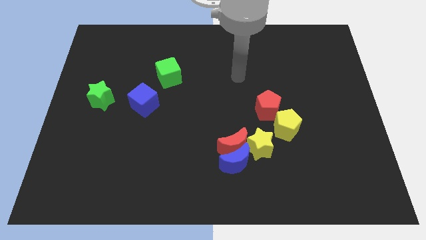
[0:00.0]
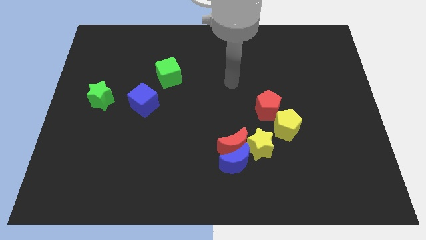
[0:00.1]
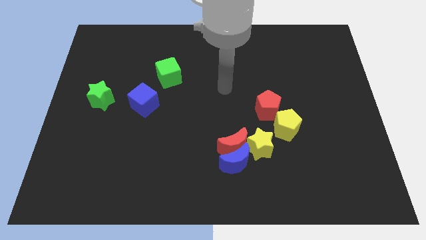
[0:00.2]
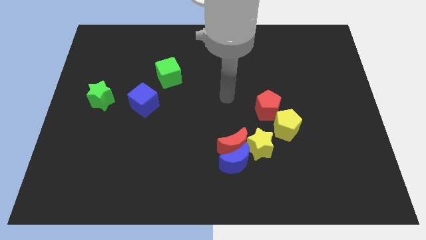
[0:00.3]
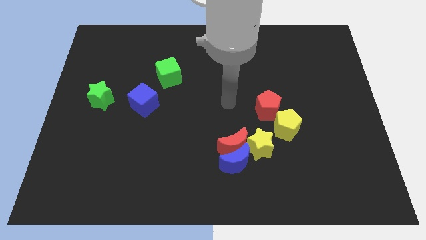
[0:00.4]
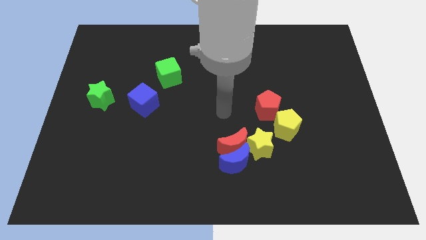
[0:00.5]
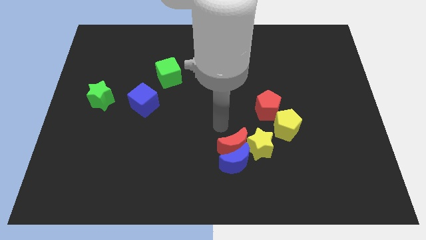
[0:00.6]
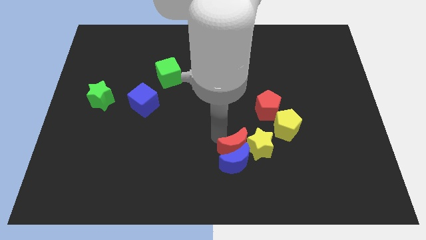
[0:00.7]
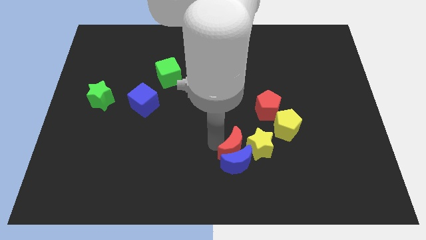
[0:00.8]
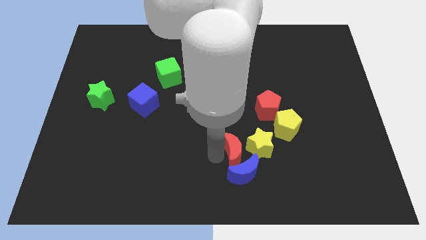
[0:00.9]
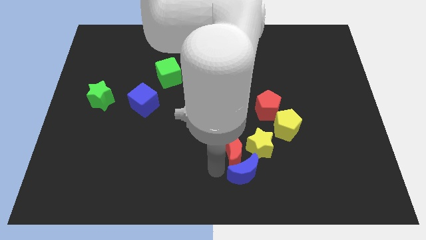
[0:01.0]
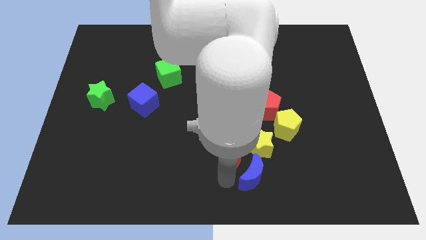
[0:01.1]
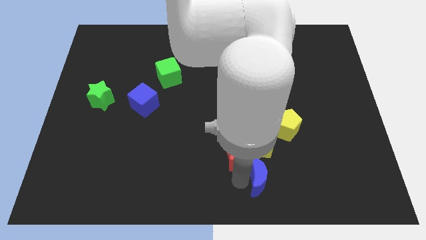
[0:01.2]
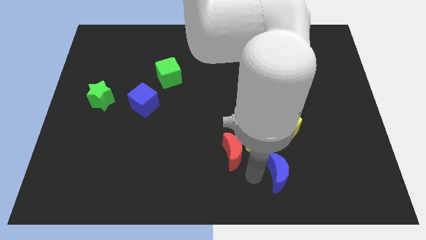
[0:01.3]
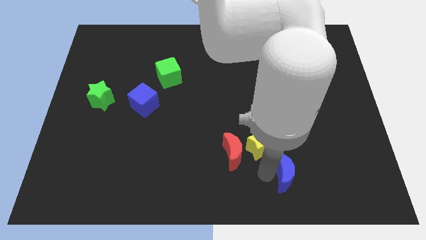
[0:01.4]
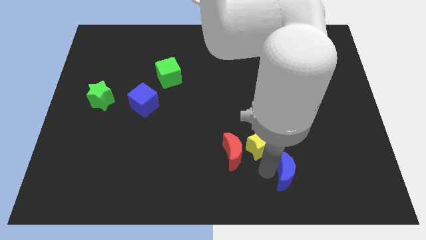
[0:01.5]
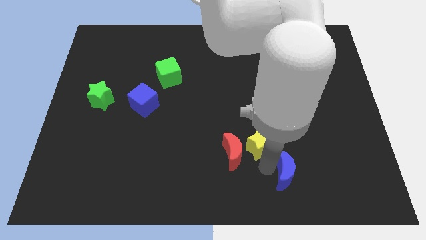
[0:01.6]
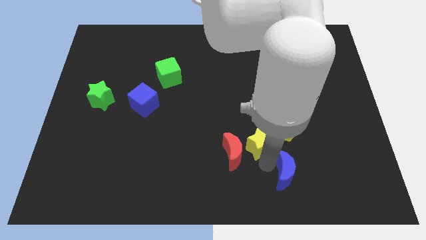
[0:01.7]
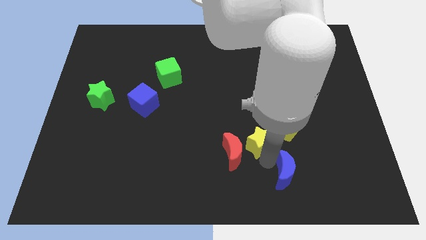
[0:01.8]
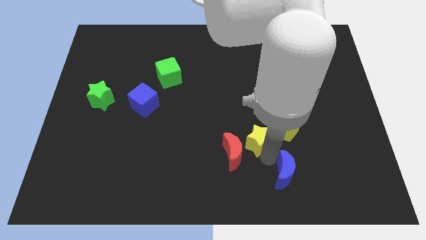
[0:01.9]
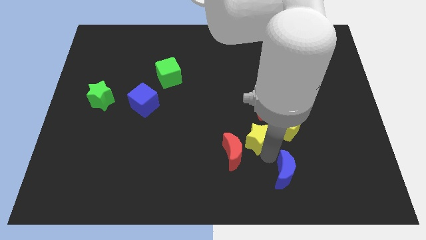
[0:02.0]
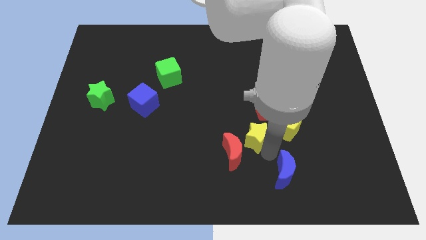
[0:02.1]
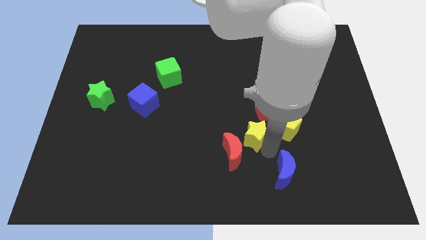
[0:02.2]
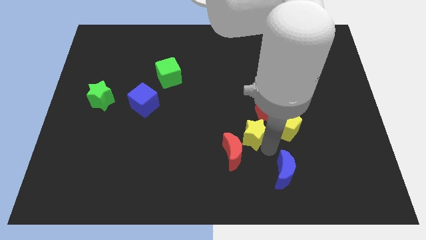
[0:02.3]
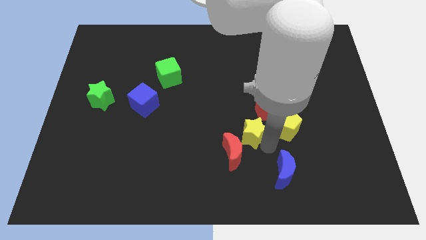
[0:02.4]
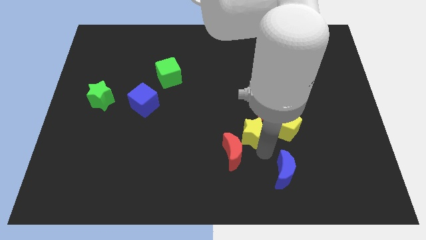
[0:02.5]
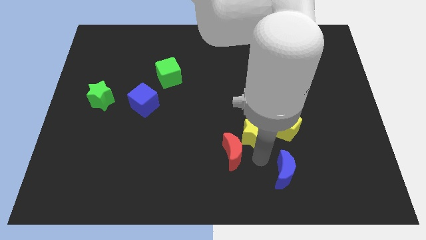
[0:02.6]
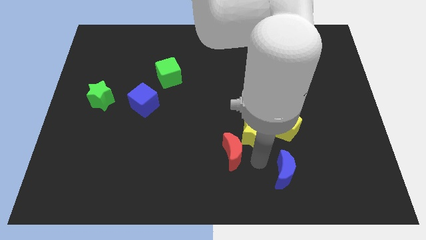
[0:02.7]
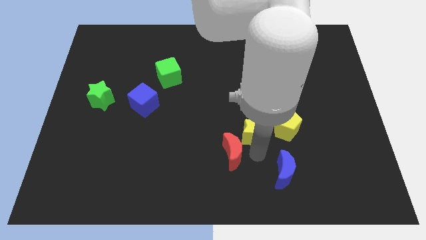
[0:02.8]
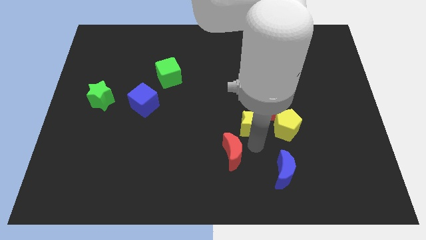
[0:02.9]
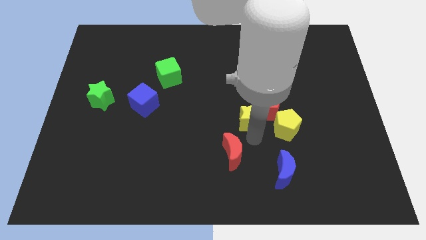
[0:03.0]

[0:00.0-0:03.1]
slide the yellow star up somewhat

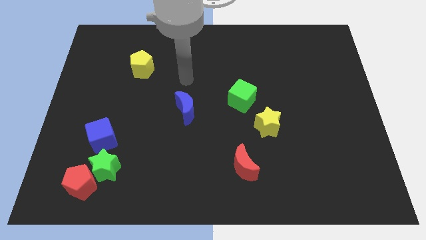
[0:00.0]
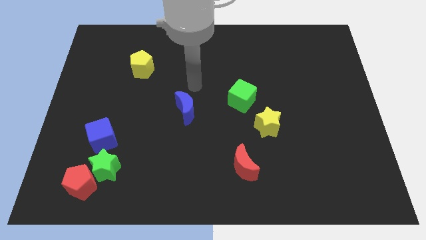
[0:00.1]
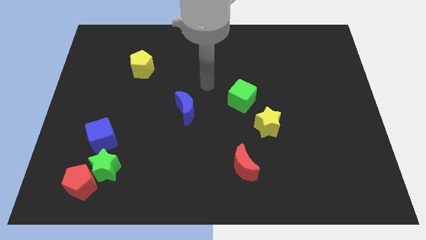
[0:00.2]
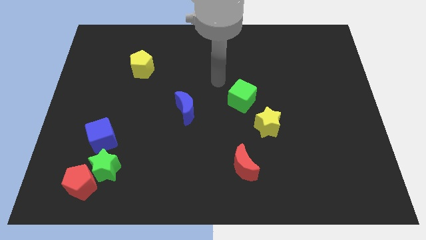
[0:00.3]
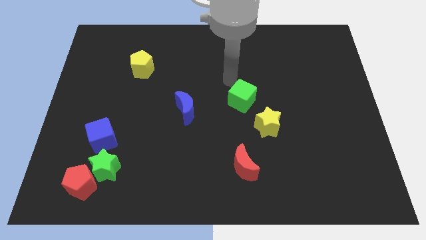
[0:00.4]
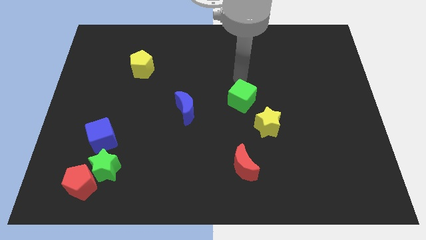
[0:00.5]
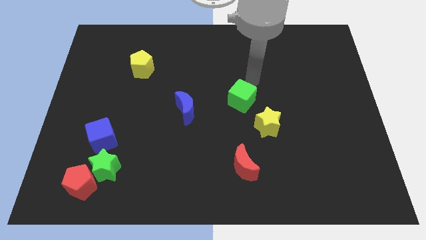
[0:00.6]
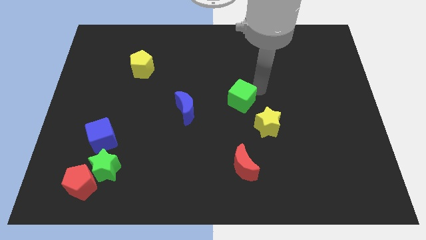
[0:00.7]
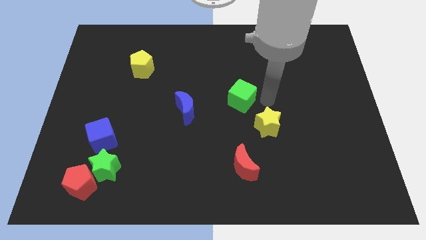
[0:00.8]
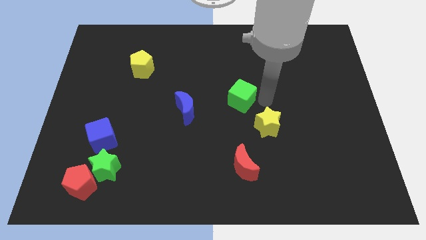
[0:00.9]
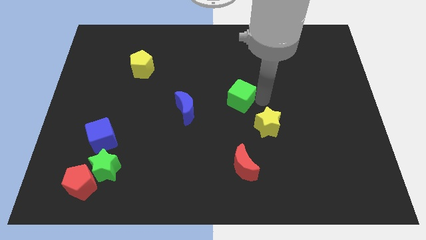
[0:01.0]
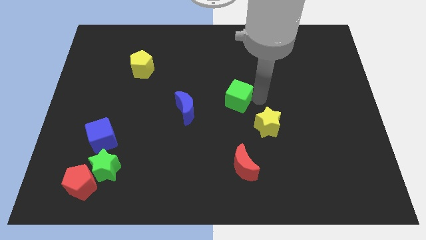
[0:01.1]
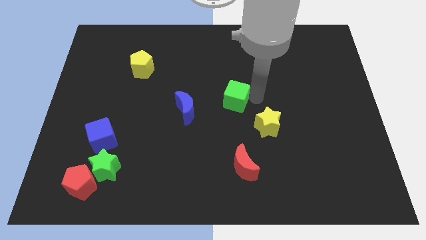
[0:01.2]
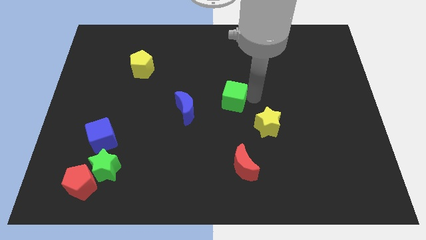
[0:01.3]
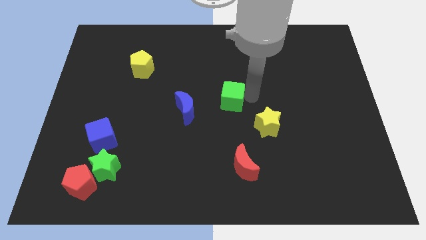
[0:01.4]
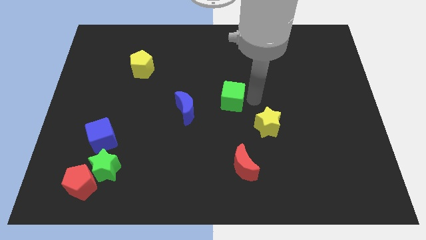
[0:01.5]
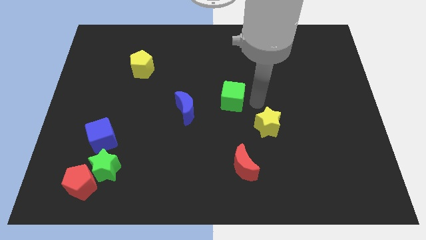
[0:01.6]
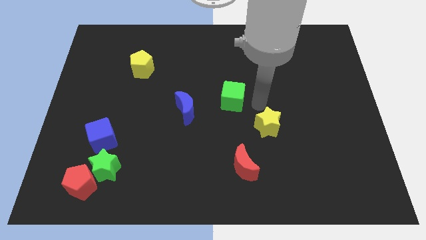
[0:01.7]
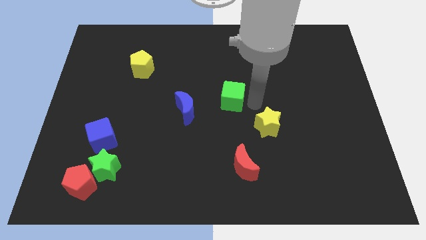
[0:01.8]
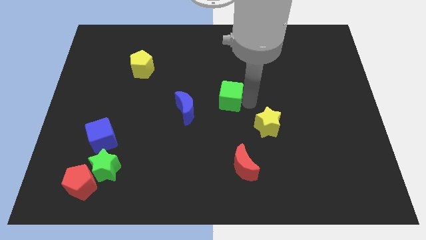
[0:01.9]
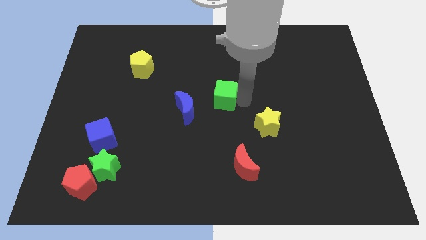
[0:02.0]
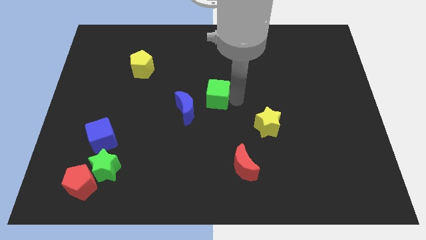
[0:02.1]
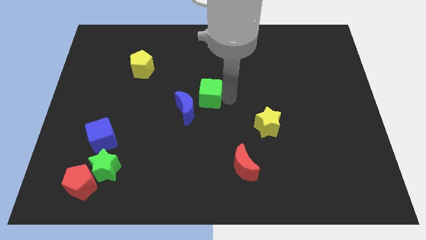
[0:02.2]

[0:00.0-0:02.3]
move the green cube to the left a bit

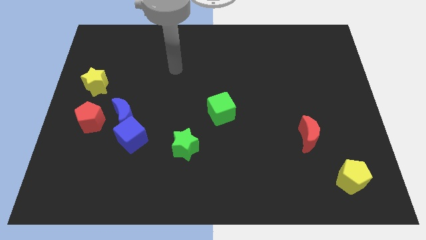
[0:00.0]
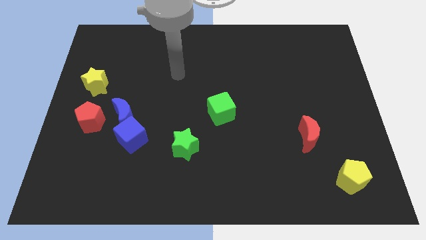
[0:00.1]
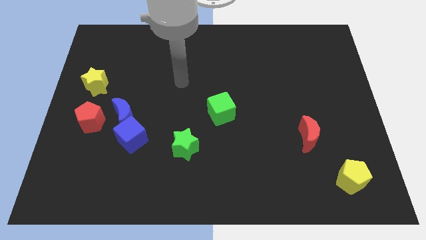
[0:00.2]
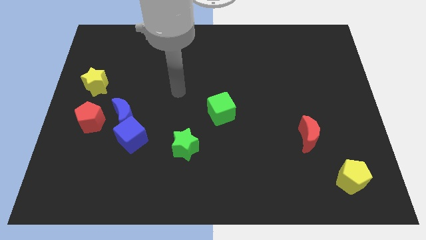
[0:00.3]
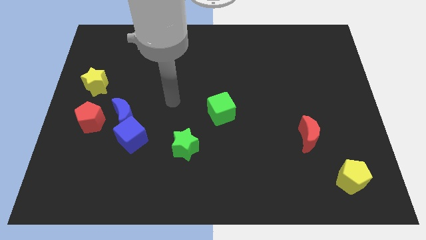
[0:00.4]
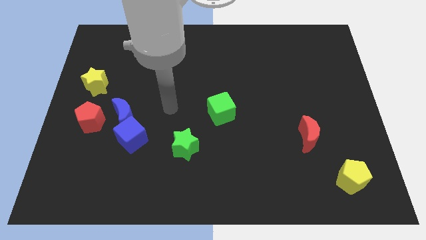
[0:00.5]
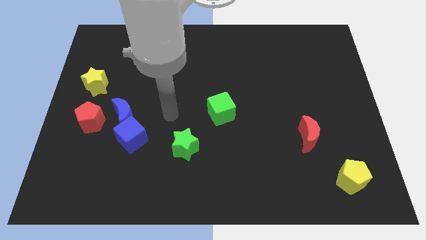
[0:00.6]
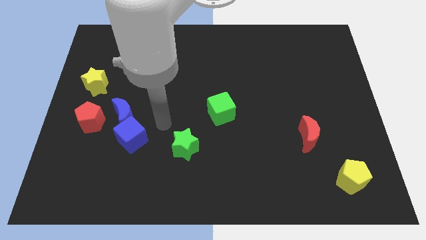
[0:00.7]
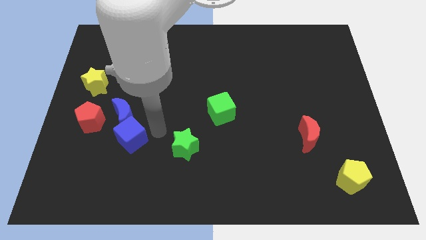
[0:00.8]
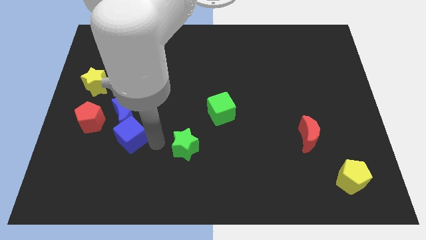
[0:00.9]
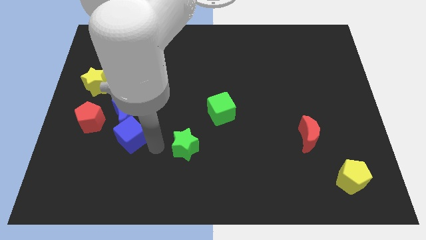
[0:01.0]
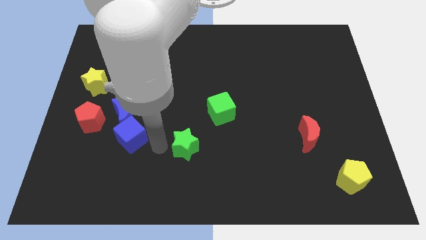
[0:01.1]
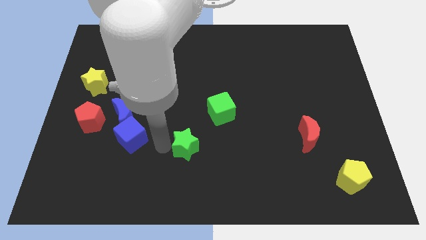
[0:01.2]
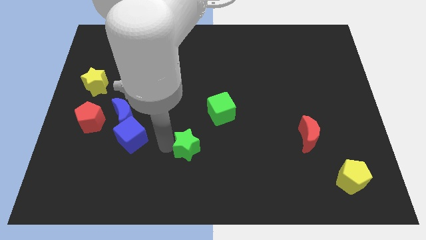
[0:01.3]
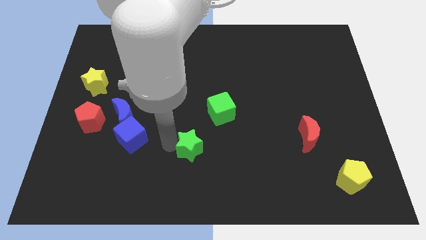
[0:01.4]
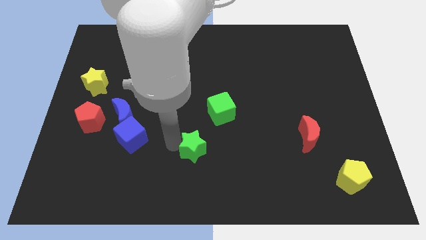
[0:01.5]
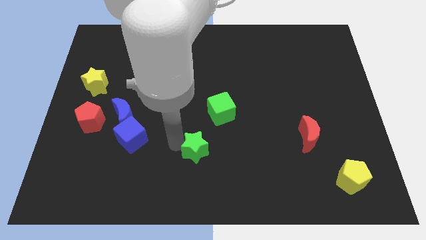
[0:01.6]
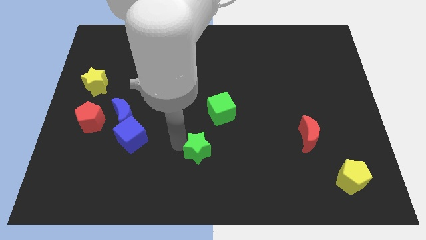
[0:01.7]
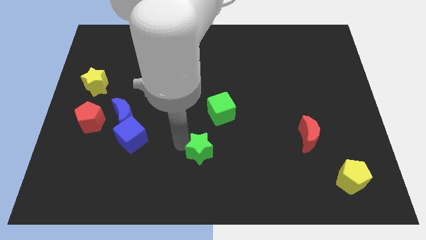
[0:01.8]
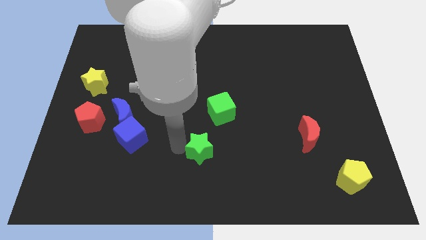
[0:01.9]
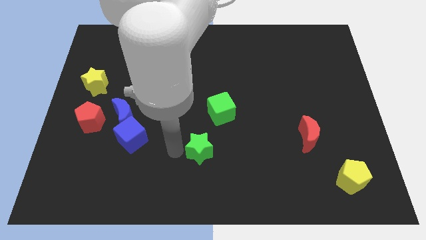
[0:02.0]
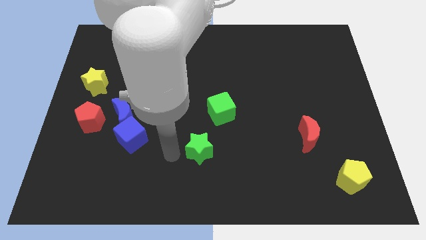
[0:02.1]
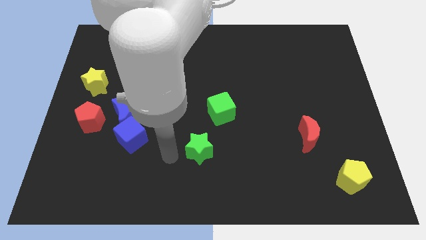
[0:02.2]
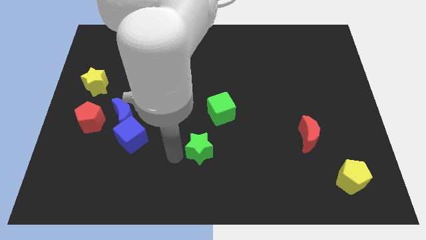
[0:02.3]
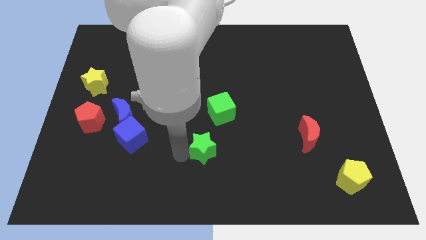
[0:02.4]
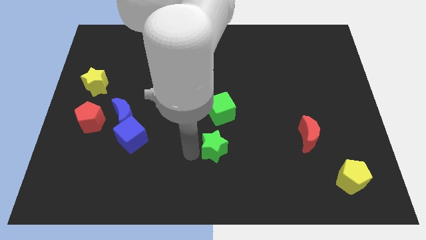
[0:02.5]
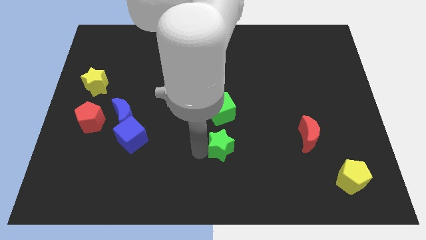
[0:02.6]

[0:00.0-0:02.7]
slightly slide the green star to the right
